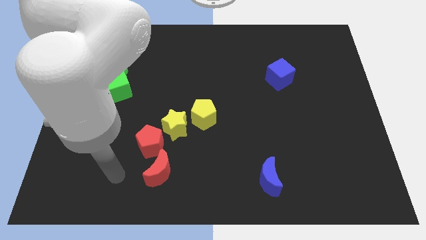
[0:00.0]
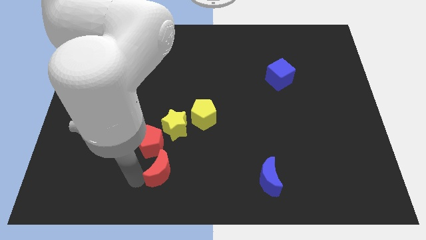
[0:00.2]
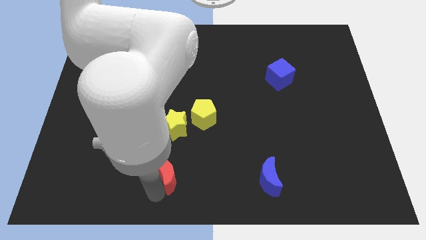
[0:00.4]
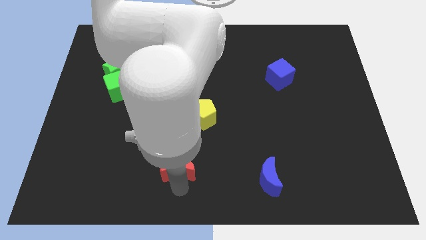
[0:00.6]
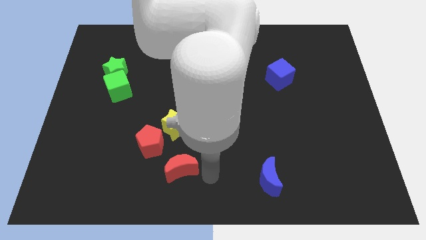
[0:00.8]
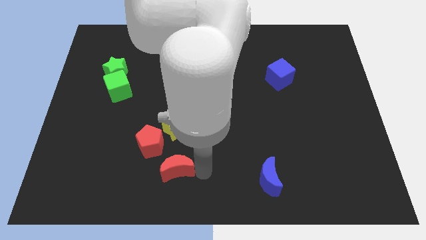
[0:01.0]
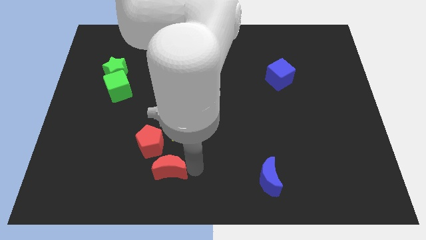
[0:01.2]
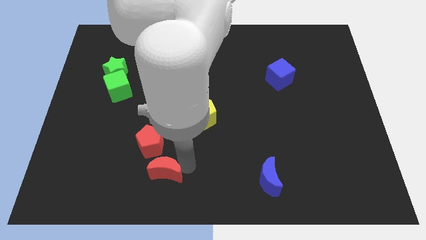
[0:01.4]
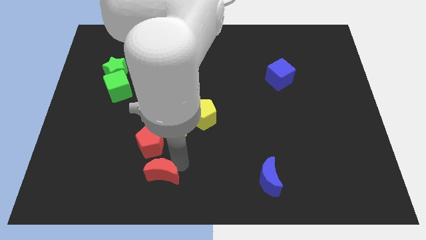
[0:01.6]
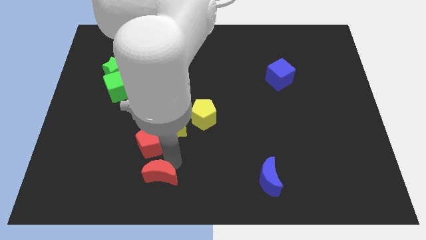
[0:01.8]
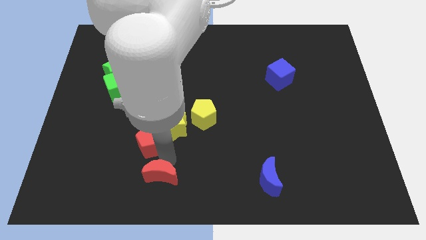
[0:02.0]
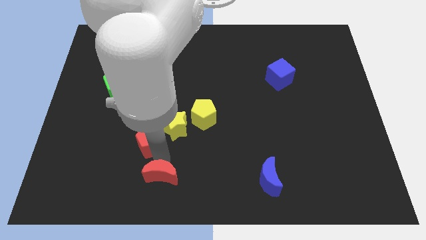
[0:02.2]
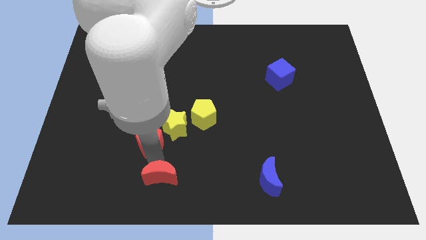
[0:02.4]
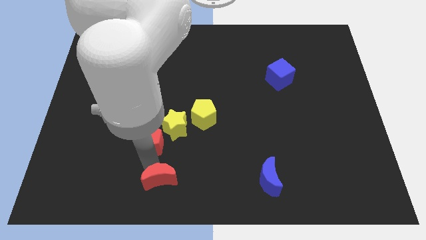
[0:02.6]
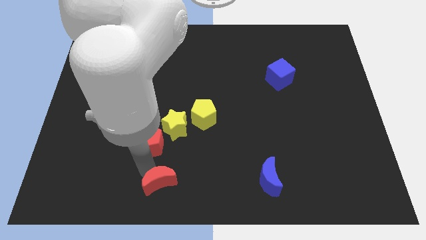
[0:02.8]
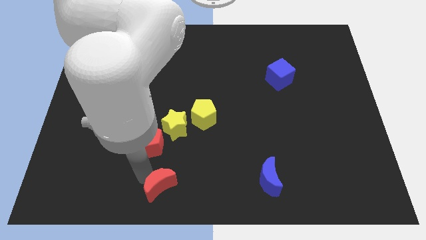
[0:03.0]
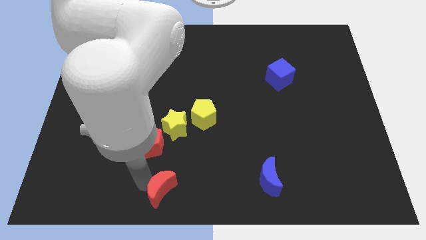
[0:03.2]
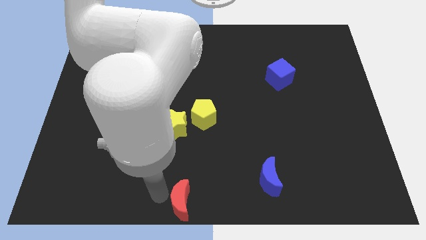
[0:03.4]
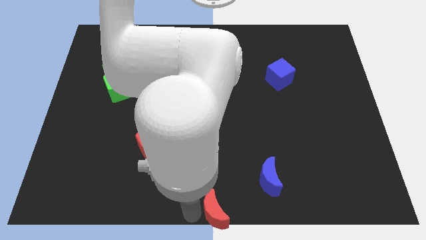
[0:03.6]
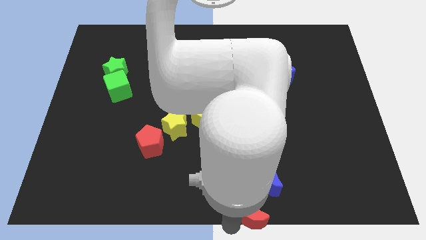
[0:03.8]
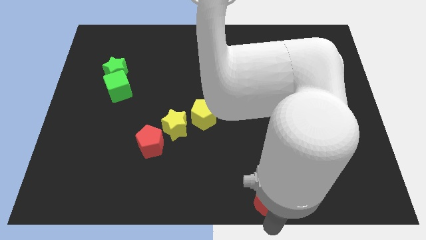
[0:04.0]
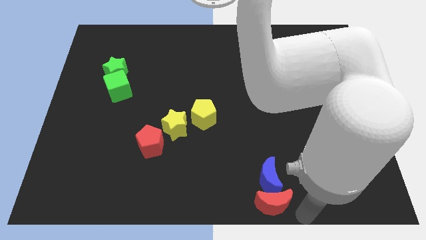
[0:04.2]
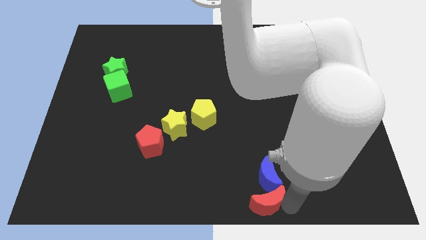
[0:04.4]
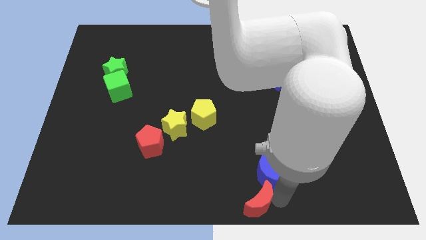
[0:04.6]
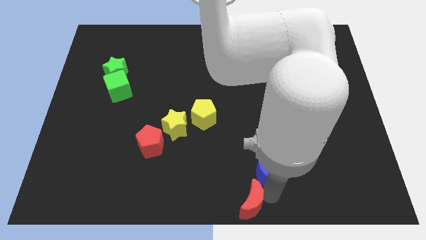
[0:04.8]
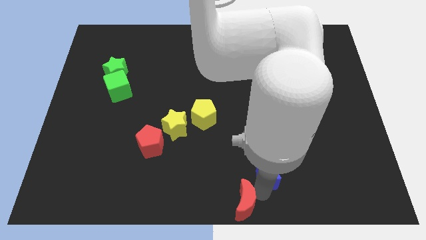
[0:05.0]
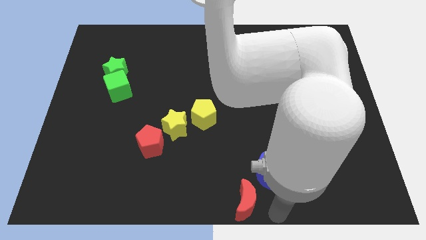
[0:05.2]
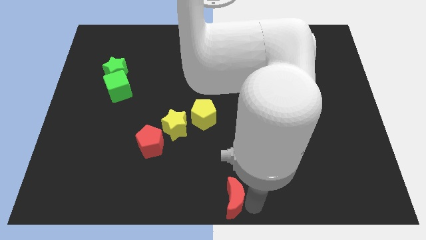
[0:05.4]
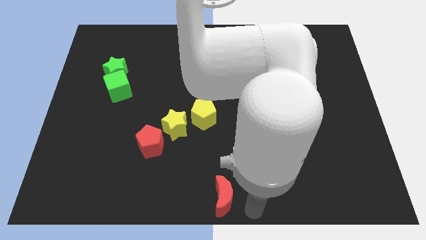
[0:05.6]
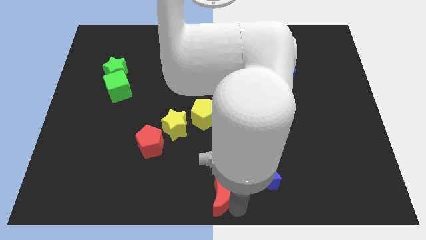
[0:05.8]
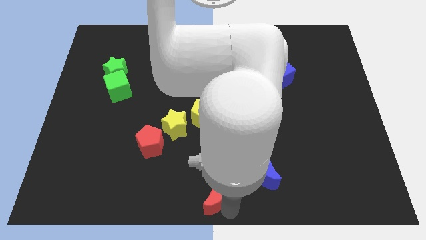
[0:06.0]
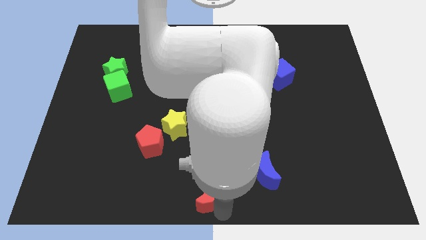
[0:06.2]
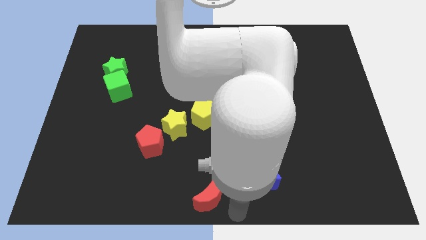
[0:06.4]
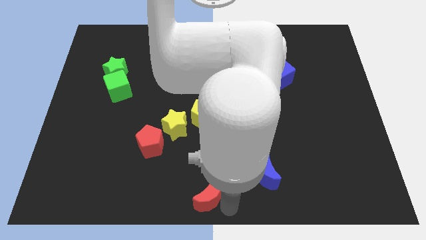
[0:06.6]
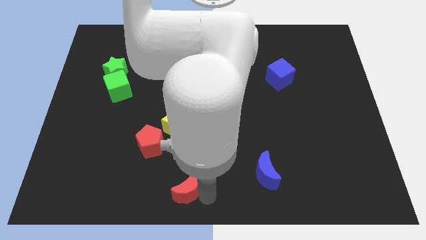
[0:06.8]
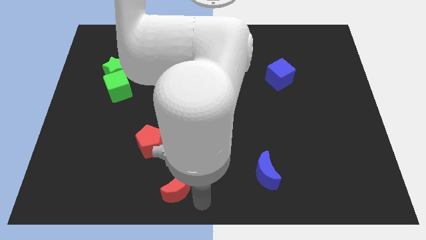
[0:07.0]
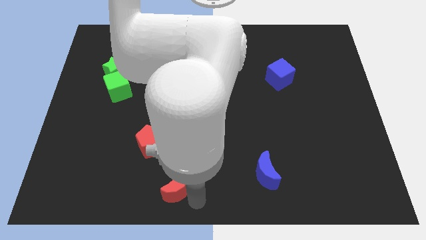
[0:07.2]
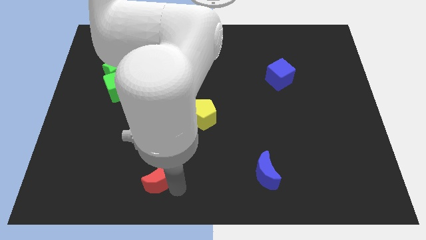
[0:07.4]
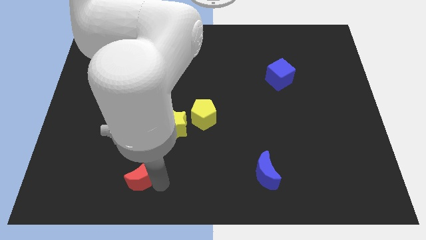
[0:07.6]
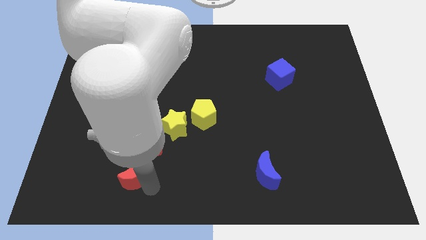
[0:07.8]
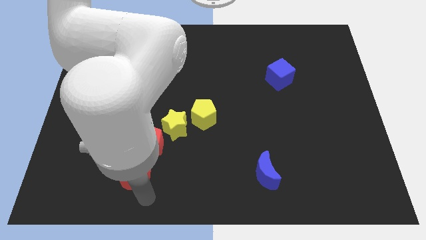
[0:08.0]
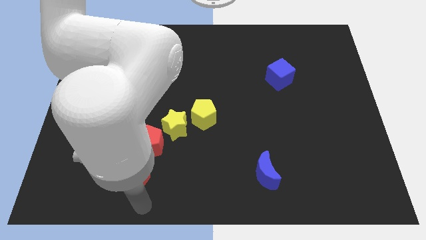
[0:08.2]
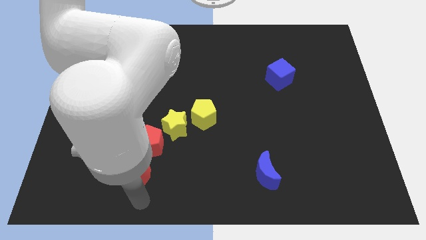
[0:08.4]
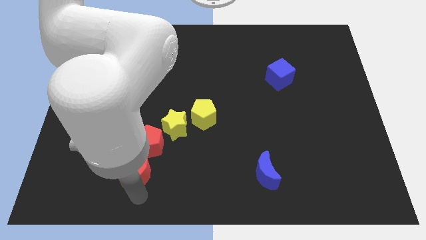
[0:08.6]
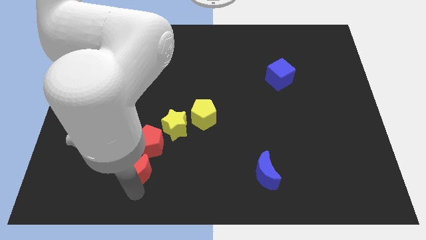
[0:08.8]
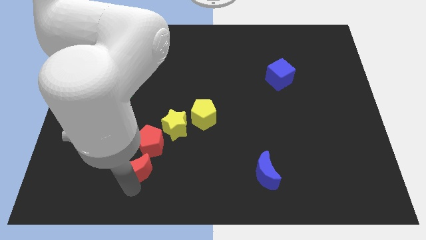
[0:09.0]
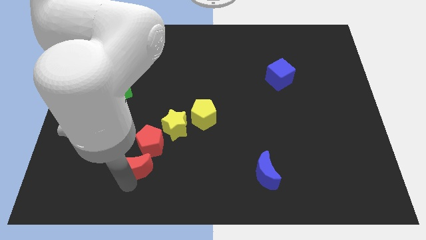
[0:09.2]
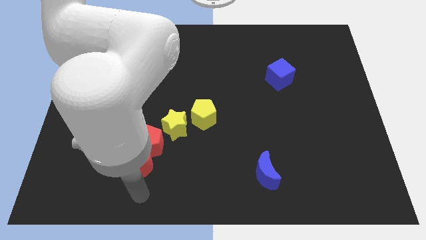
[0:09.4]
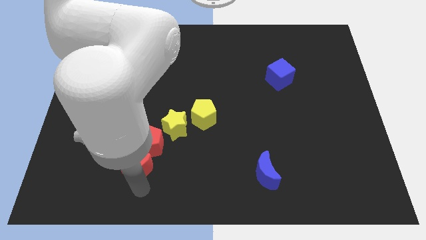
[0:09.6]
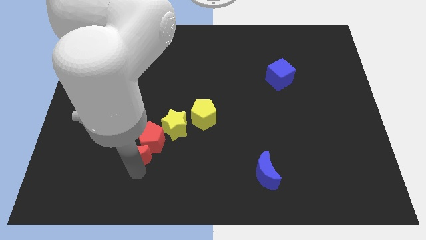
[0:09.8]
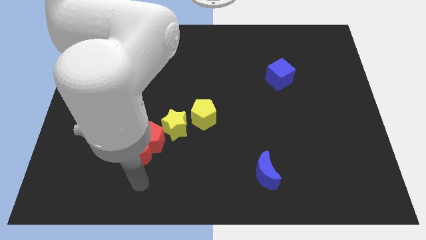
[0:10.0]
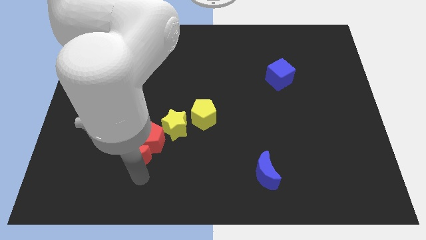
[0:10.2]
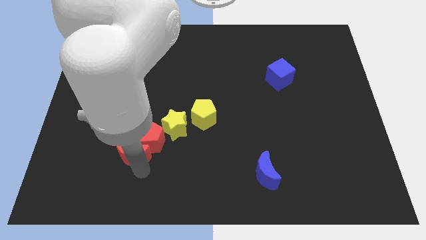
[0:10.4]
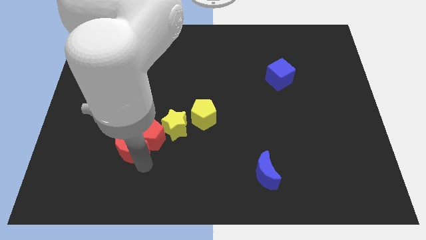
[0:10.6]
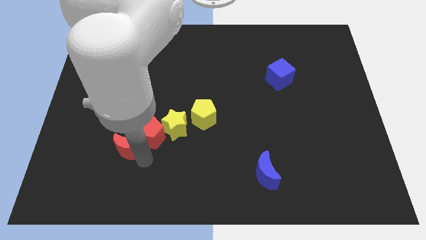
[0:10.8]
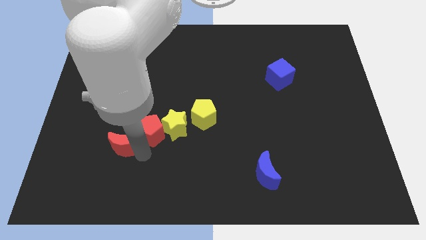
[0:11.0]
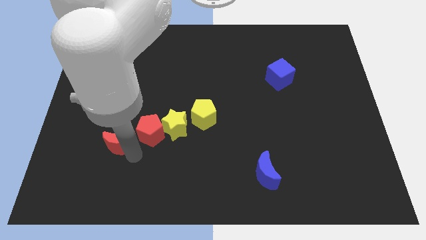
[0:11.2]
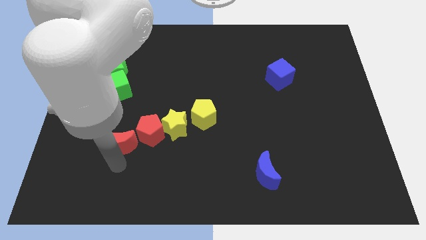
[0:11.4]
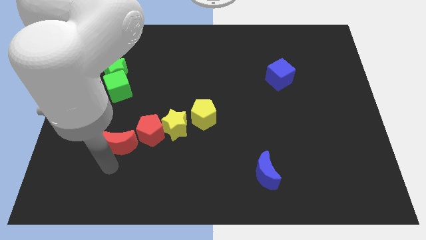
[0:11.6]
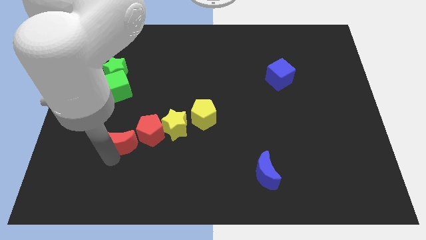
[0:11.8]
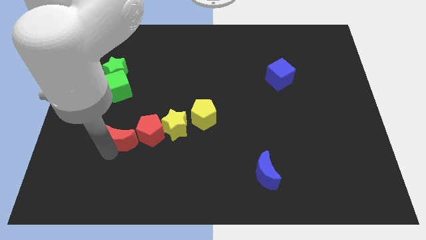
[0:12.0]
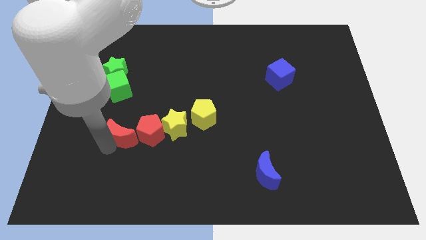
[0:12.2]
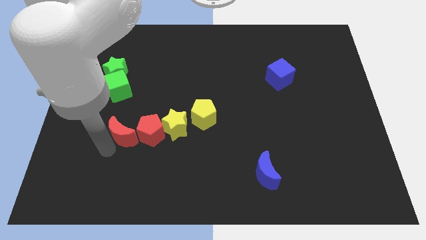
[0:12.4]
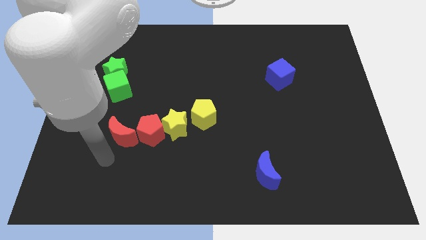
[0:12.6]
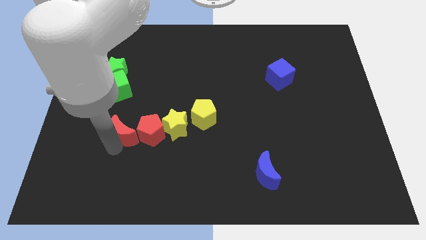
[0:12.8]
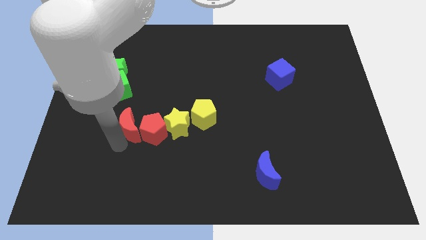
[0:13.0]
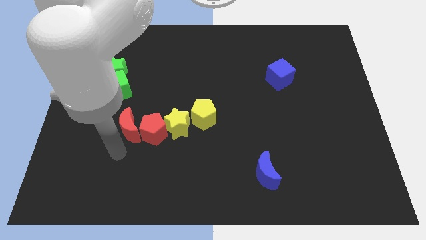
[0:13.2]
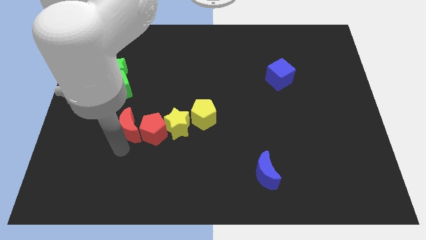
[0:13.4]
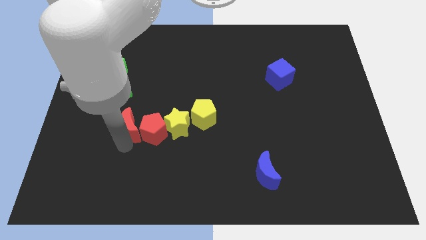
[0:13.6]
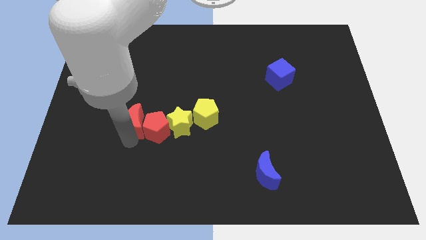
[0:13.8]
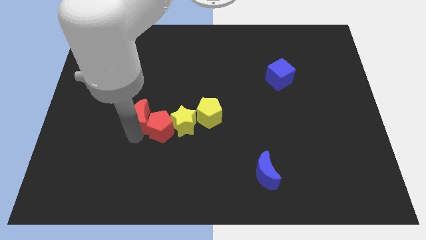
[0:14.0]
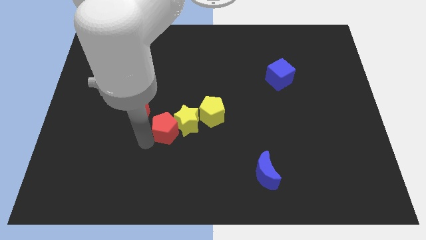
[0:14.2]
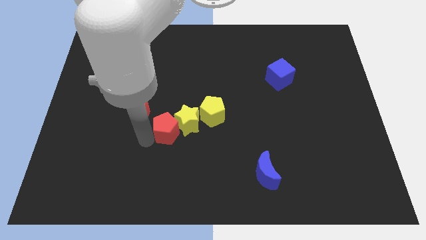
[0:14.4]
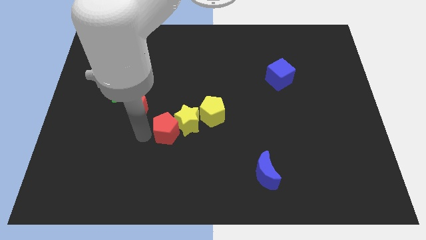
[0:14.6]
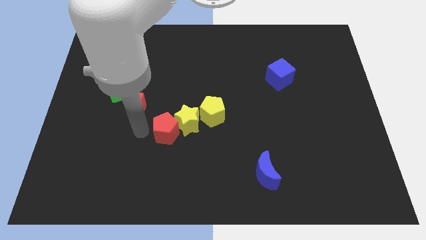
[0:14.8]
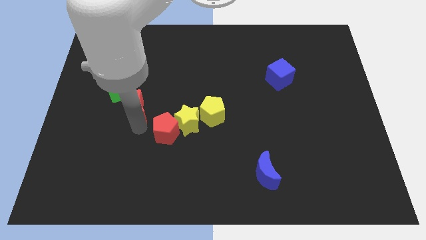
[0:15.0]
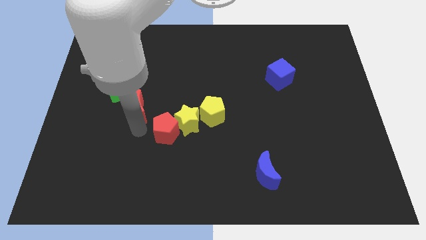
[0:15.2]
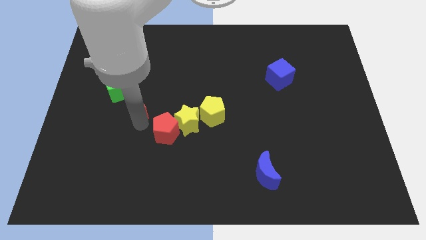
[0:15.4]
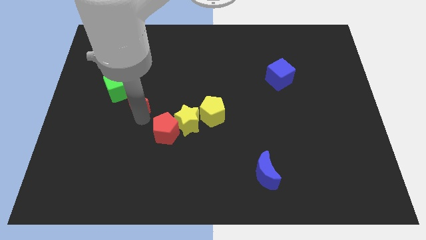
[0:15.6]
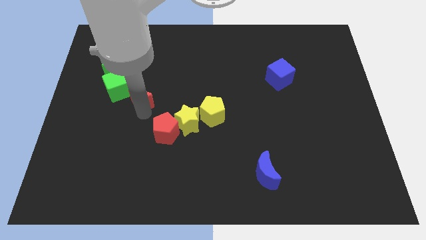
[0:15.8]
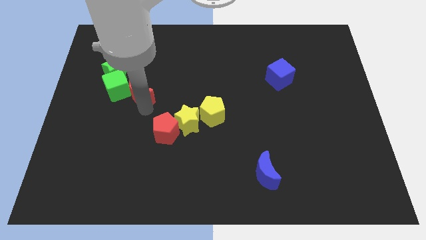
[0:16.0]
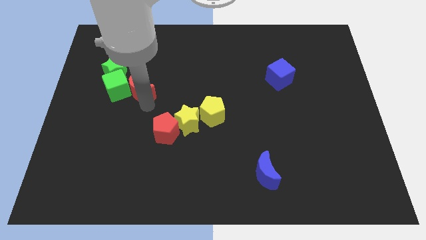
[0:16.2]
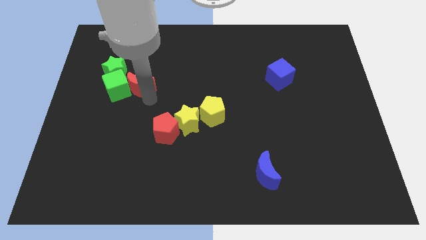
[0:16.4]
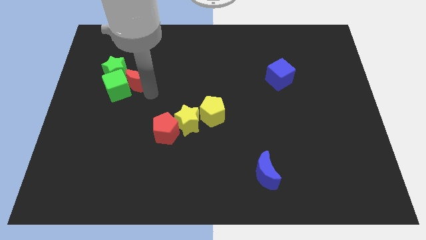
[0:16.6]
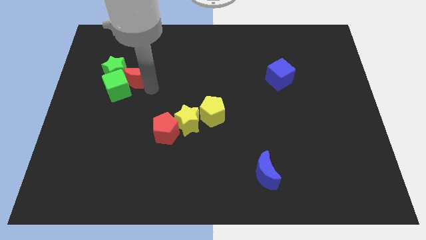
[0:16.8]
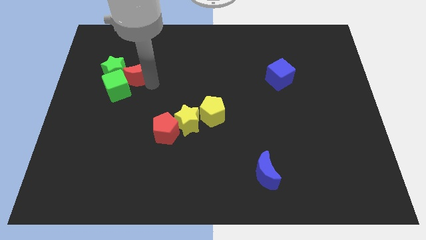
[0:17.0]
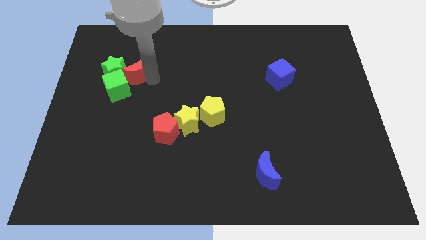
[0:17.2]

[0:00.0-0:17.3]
put the red moon to the green star
